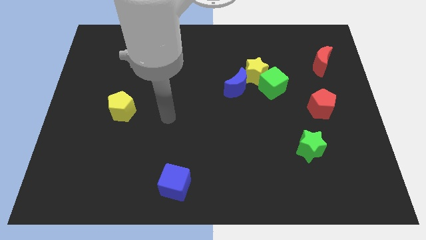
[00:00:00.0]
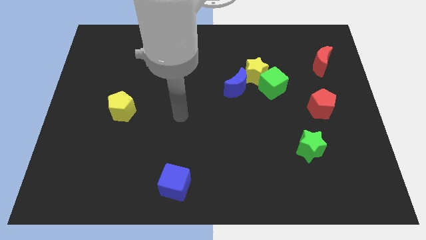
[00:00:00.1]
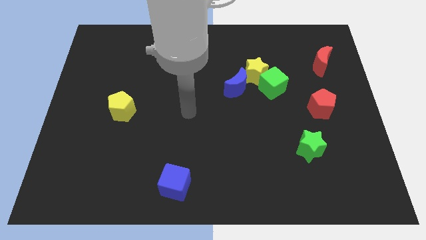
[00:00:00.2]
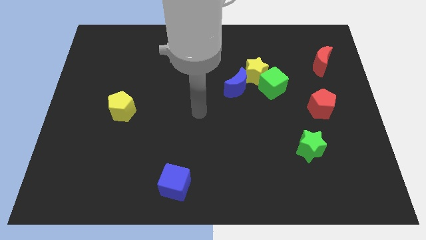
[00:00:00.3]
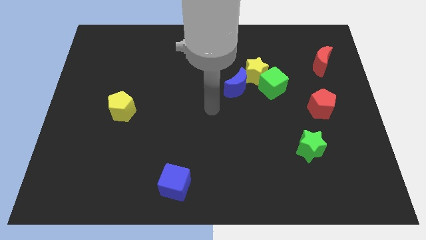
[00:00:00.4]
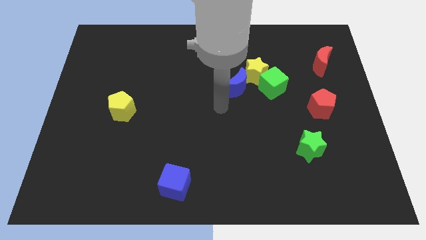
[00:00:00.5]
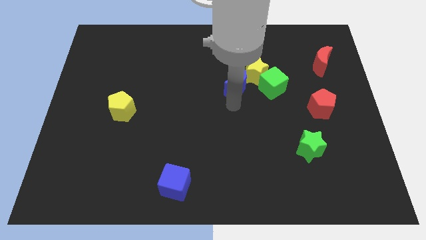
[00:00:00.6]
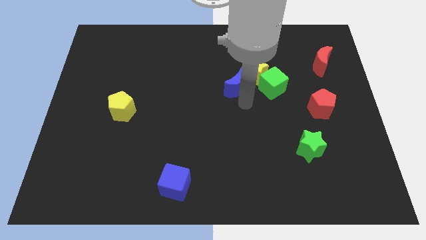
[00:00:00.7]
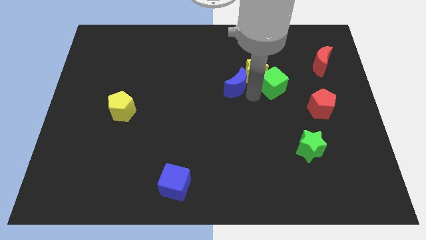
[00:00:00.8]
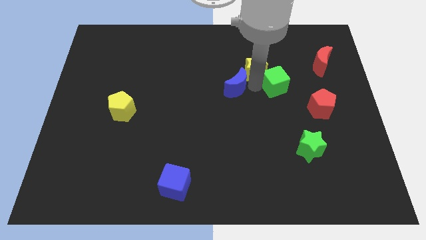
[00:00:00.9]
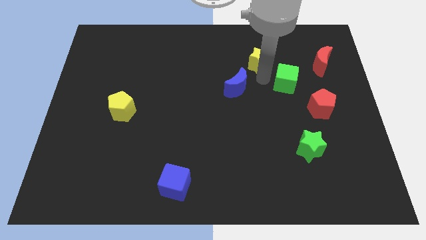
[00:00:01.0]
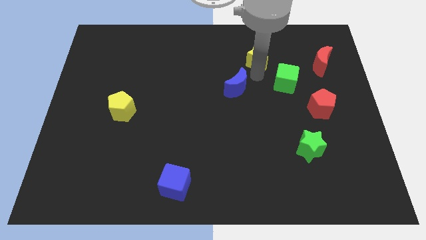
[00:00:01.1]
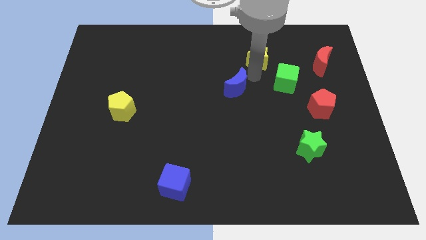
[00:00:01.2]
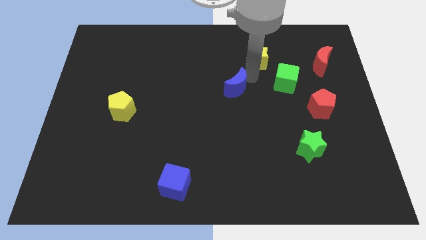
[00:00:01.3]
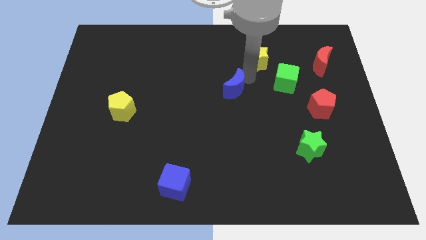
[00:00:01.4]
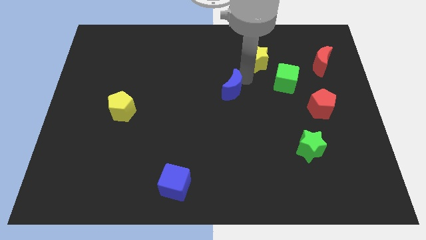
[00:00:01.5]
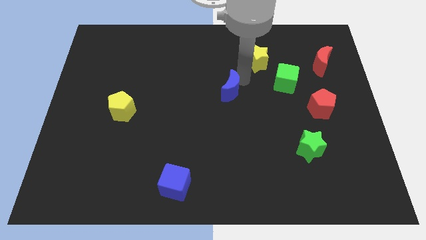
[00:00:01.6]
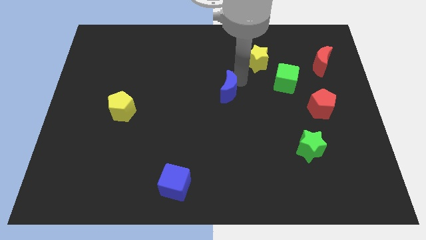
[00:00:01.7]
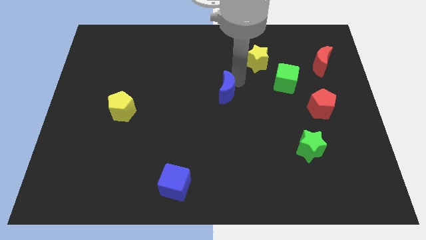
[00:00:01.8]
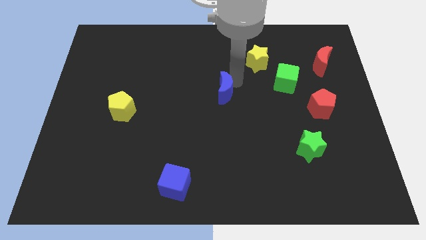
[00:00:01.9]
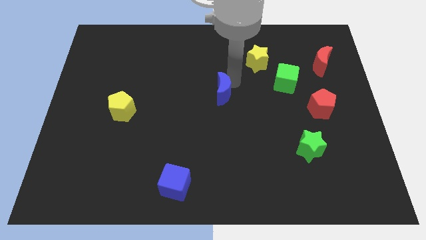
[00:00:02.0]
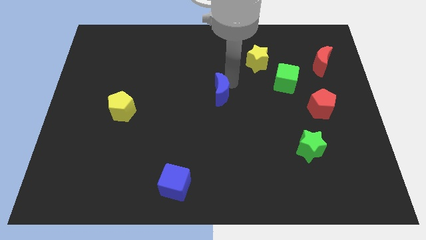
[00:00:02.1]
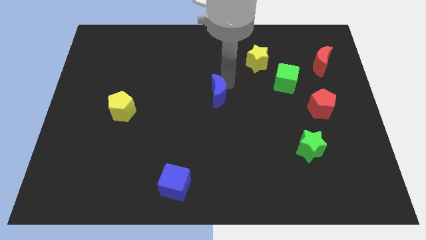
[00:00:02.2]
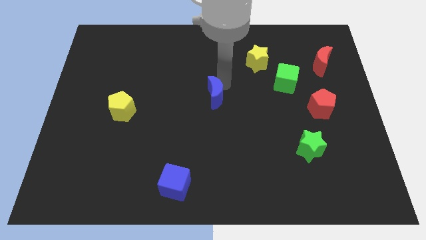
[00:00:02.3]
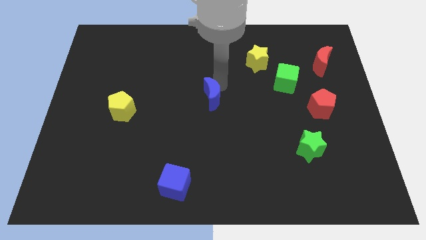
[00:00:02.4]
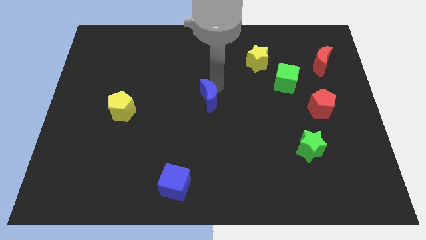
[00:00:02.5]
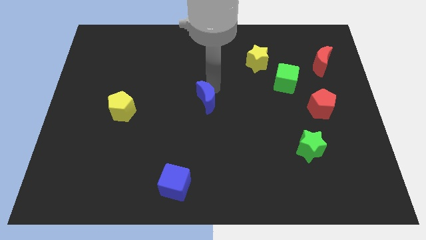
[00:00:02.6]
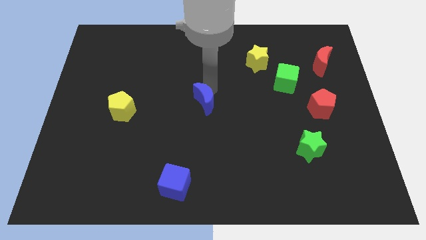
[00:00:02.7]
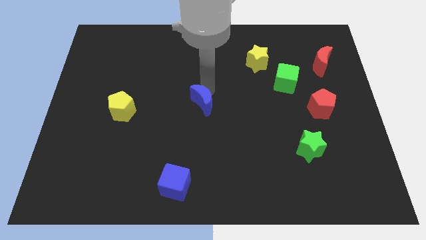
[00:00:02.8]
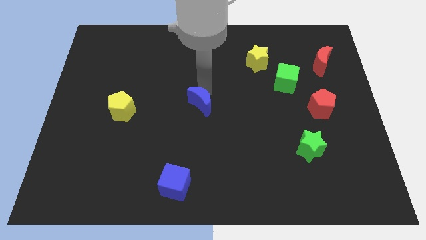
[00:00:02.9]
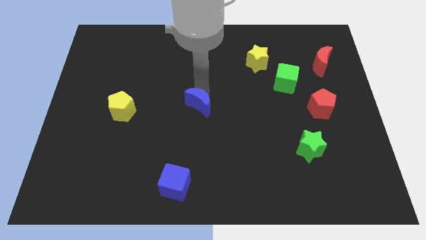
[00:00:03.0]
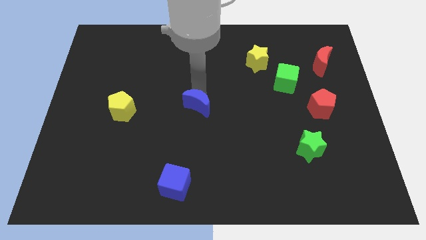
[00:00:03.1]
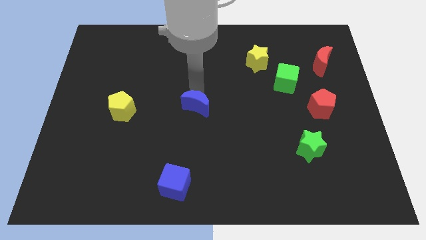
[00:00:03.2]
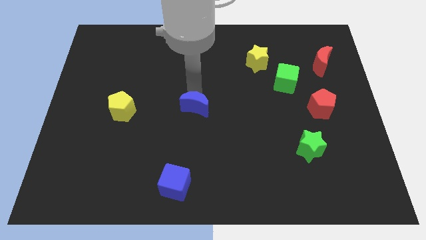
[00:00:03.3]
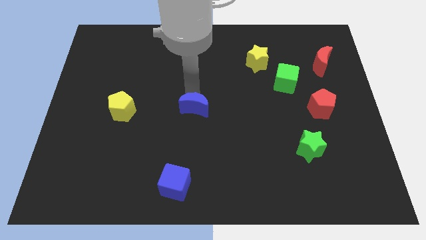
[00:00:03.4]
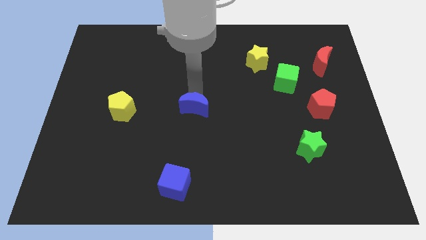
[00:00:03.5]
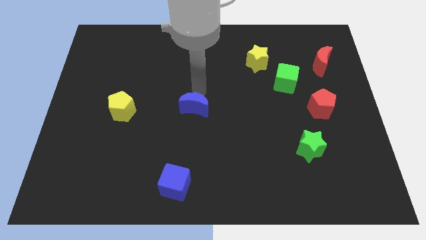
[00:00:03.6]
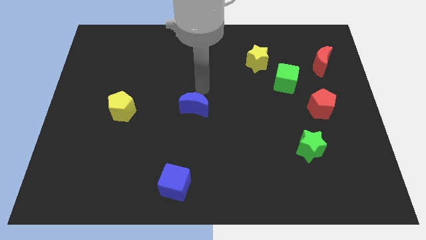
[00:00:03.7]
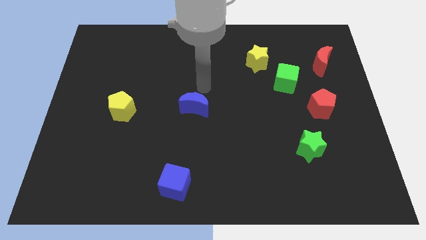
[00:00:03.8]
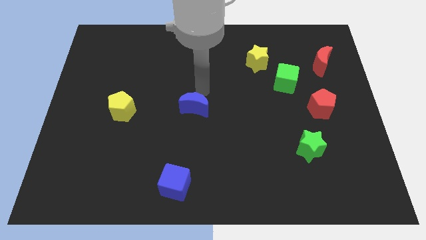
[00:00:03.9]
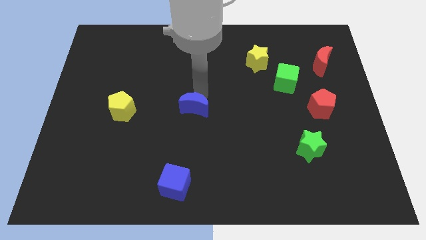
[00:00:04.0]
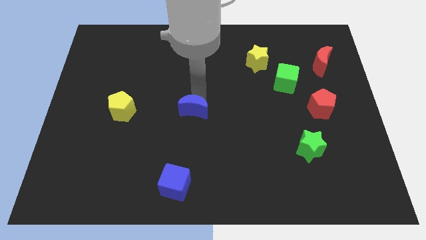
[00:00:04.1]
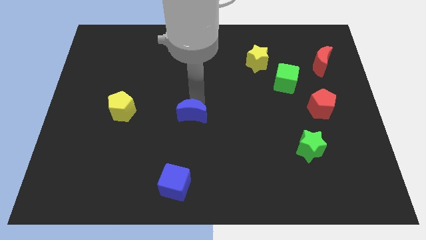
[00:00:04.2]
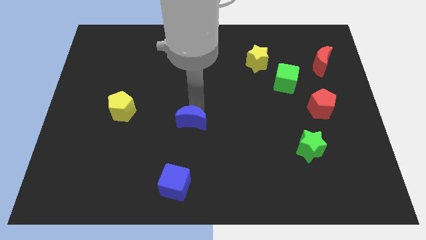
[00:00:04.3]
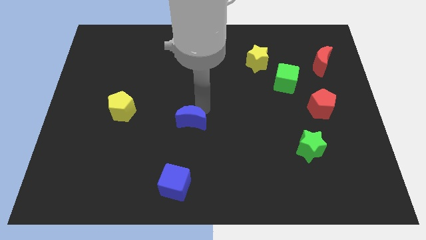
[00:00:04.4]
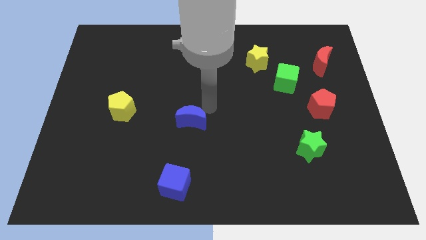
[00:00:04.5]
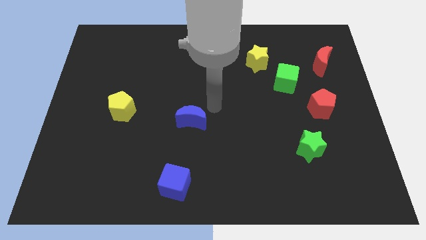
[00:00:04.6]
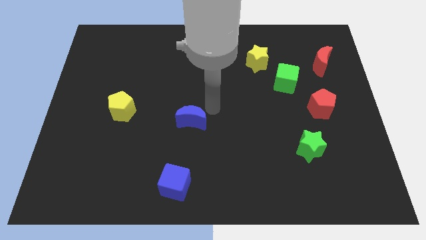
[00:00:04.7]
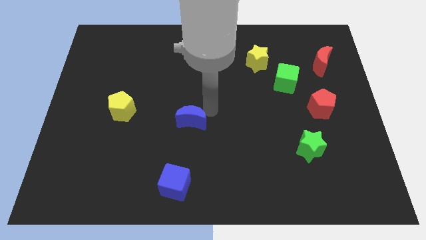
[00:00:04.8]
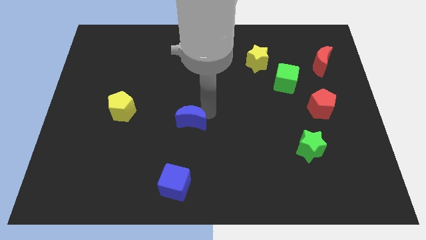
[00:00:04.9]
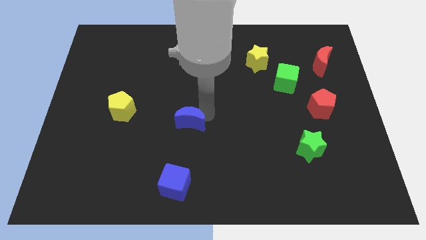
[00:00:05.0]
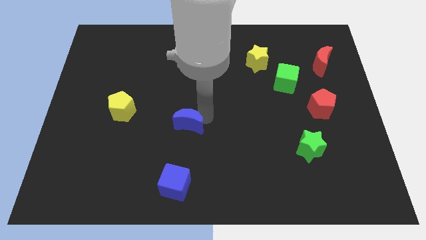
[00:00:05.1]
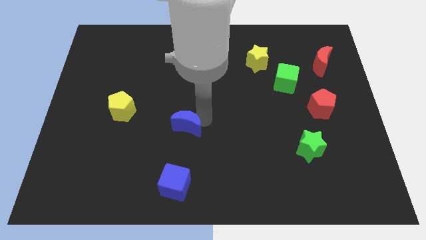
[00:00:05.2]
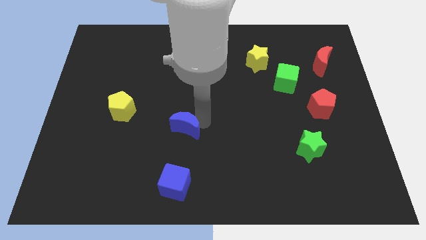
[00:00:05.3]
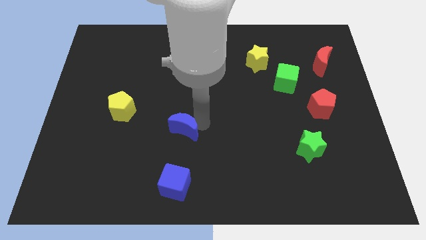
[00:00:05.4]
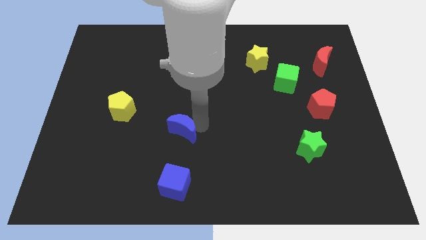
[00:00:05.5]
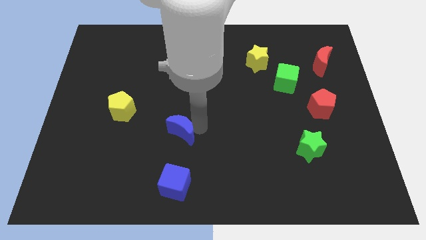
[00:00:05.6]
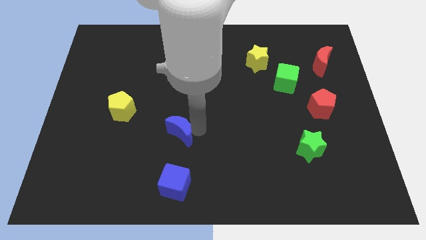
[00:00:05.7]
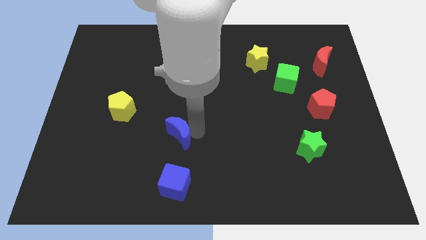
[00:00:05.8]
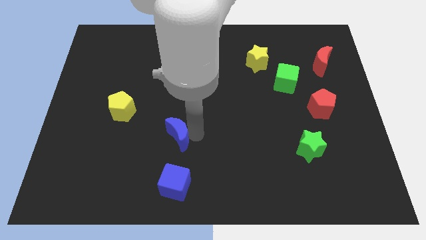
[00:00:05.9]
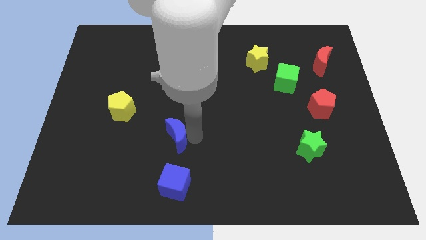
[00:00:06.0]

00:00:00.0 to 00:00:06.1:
slide the blue moon downwards and then to the left

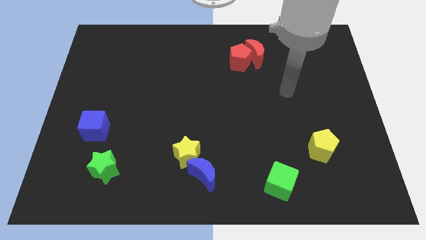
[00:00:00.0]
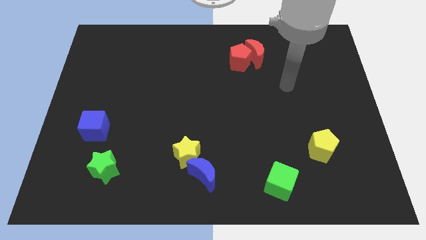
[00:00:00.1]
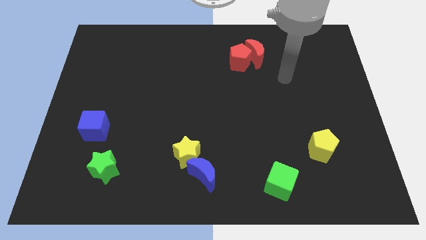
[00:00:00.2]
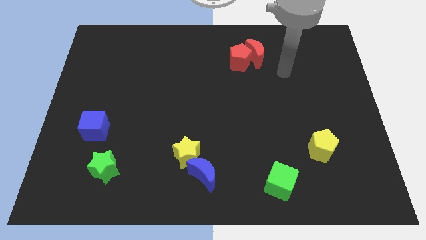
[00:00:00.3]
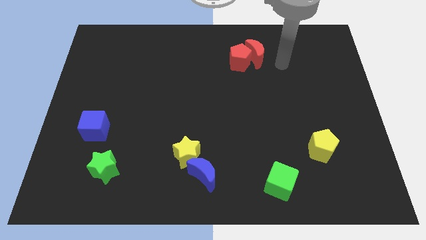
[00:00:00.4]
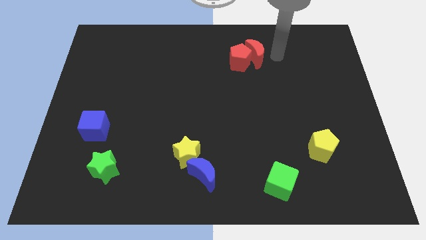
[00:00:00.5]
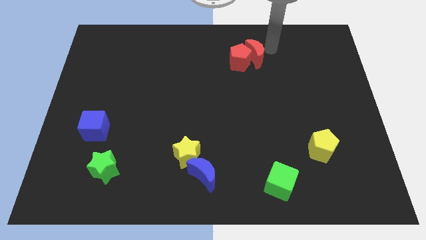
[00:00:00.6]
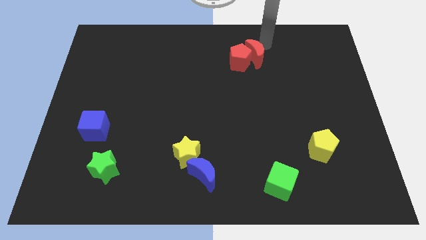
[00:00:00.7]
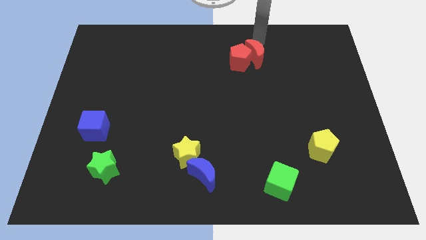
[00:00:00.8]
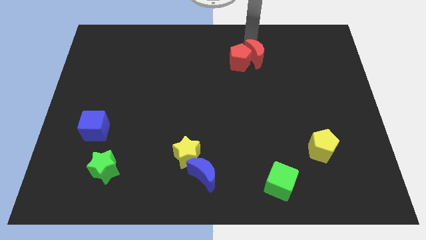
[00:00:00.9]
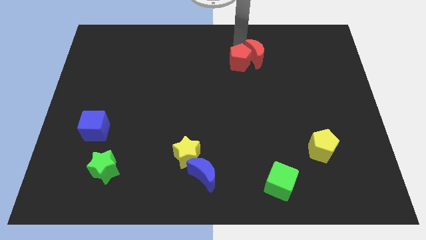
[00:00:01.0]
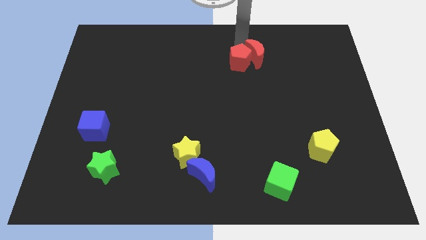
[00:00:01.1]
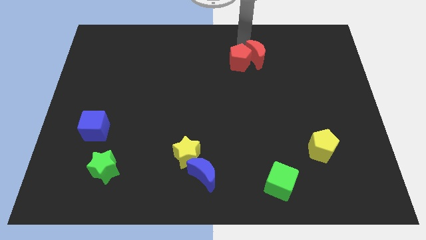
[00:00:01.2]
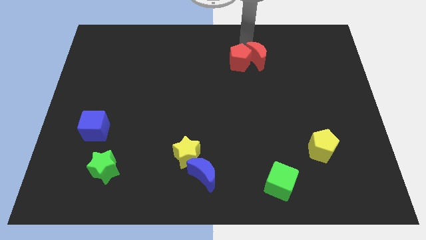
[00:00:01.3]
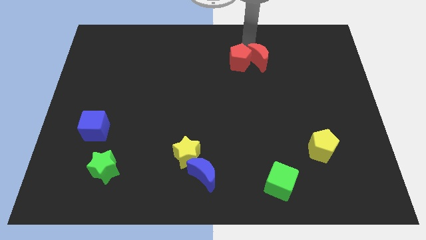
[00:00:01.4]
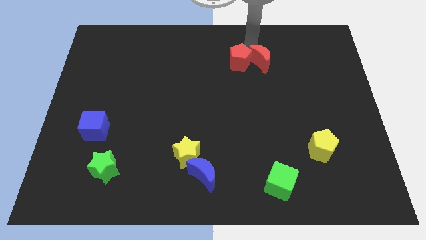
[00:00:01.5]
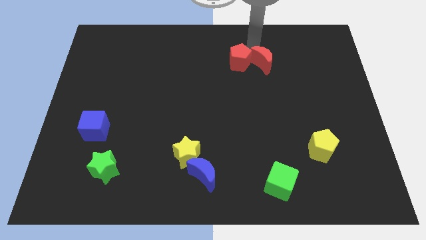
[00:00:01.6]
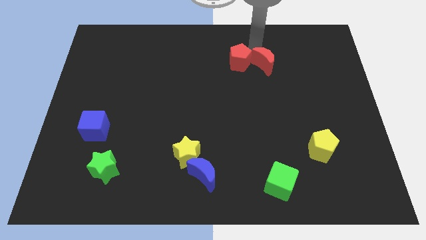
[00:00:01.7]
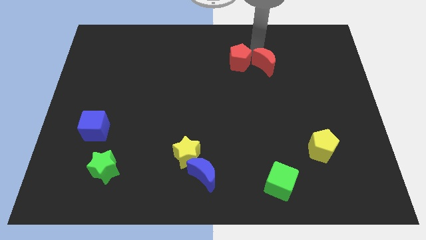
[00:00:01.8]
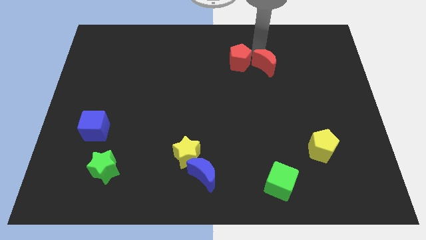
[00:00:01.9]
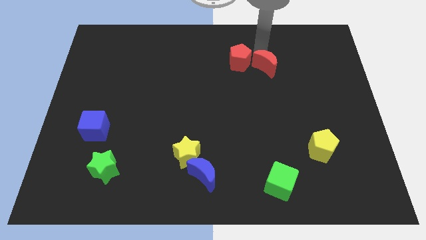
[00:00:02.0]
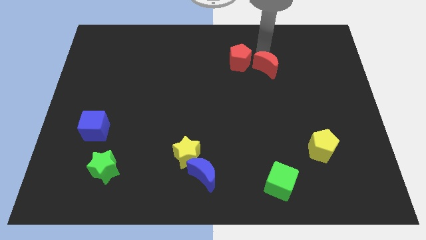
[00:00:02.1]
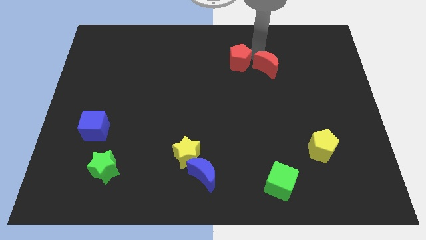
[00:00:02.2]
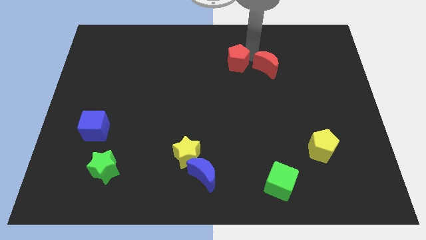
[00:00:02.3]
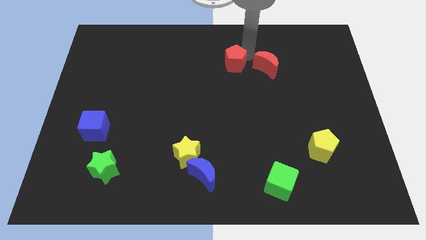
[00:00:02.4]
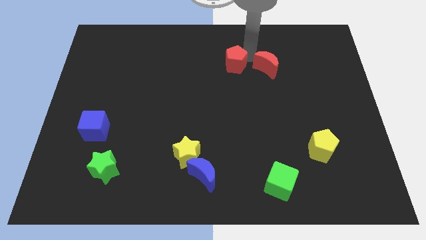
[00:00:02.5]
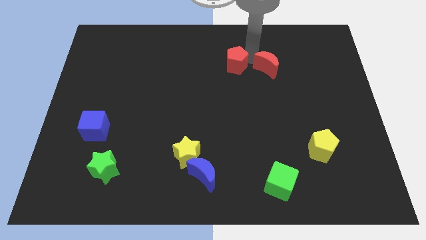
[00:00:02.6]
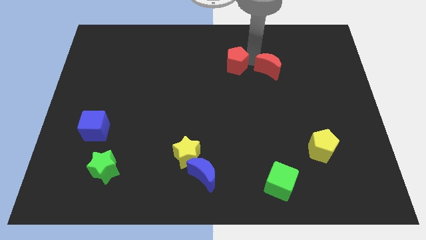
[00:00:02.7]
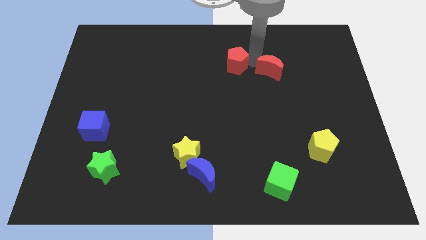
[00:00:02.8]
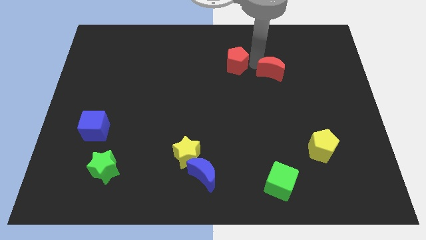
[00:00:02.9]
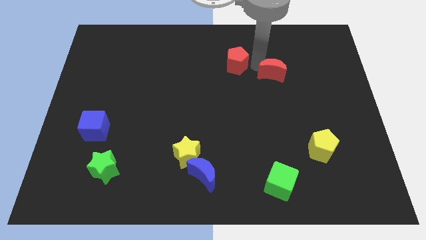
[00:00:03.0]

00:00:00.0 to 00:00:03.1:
slide the red moon a bit diagonally downwards and to the right
